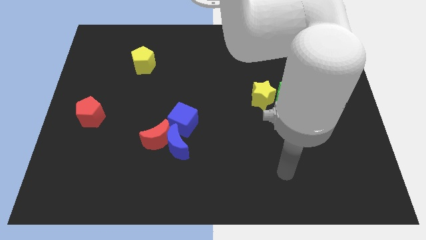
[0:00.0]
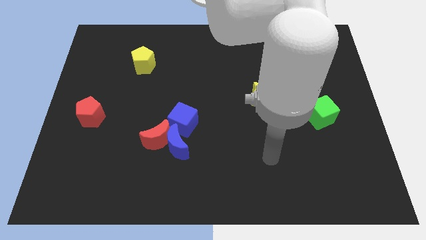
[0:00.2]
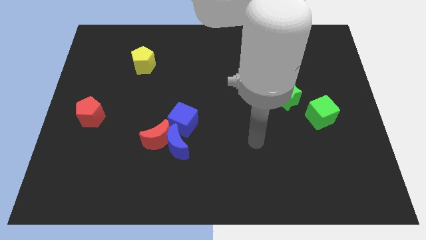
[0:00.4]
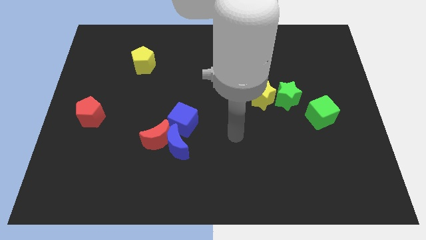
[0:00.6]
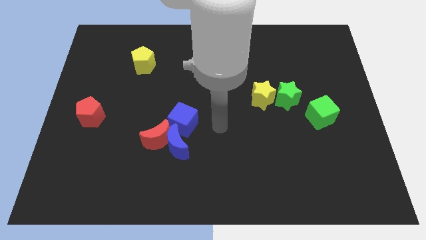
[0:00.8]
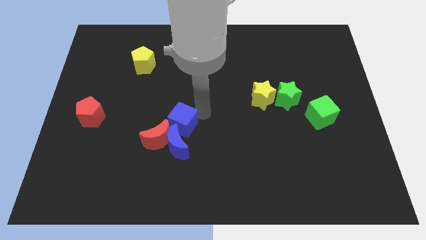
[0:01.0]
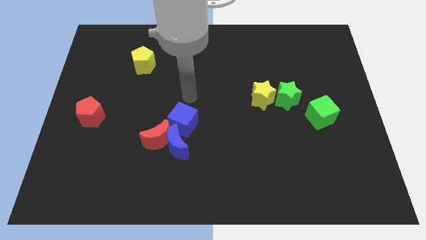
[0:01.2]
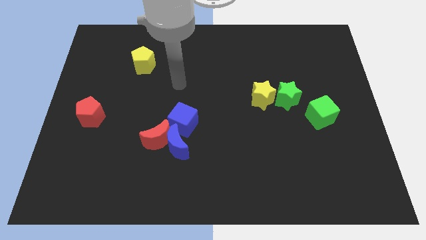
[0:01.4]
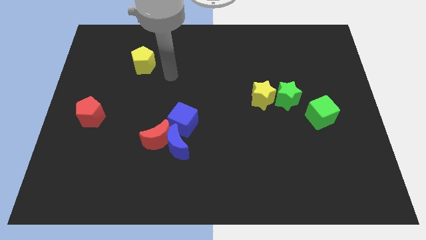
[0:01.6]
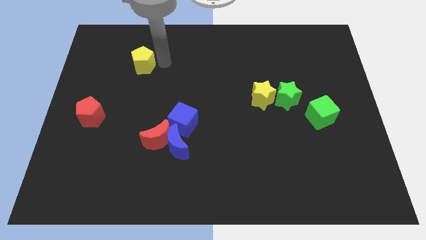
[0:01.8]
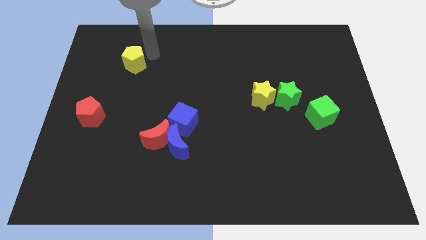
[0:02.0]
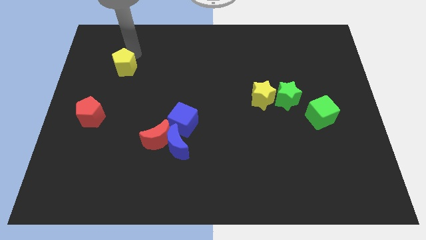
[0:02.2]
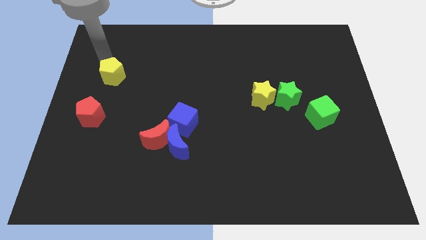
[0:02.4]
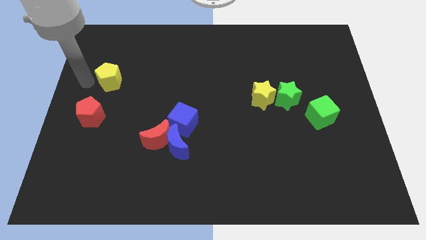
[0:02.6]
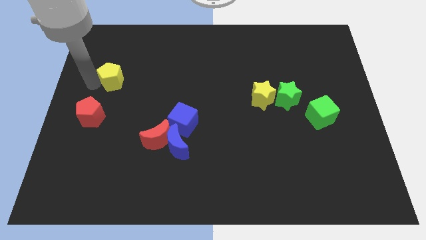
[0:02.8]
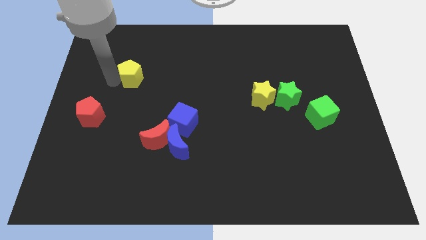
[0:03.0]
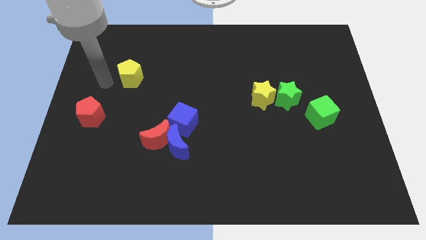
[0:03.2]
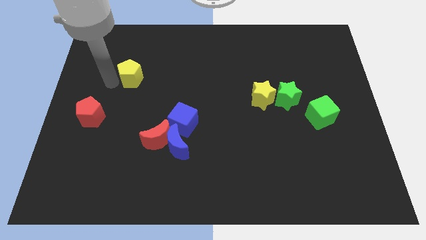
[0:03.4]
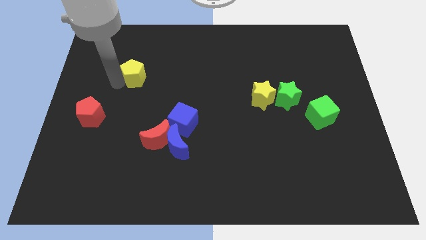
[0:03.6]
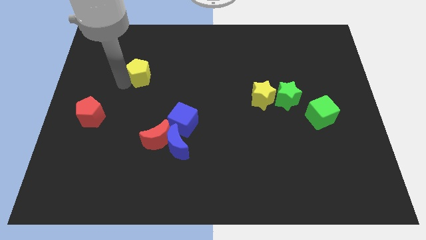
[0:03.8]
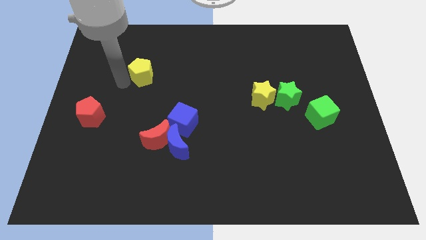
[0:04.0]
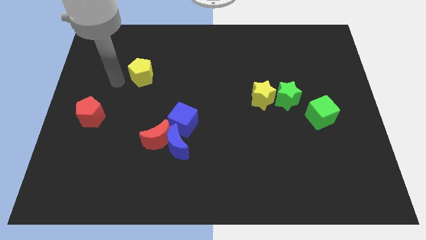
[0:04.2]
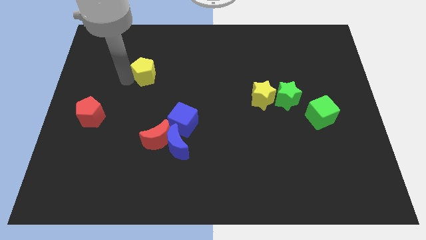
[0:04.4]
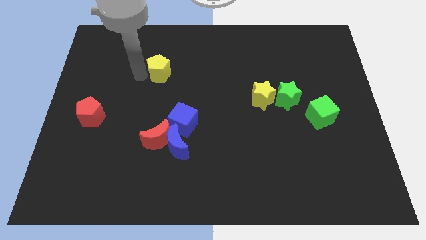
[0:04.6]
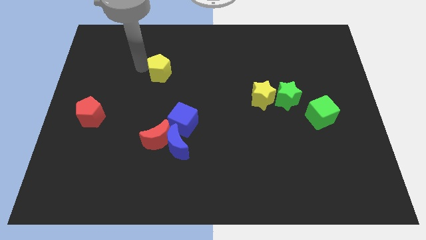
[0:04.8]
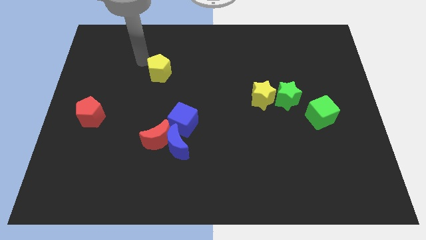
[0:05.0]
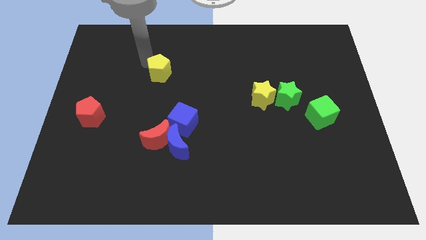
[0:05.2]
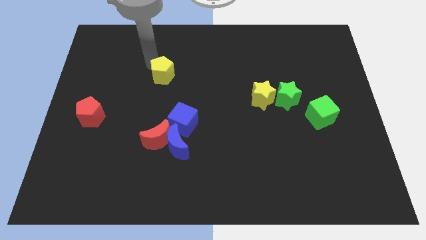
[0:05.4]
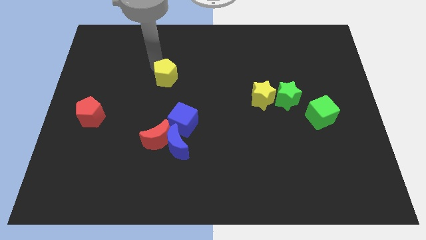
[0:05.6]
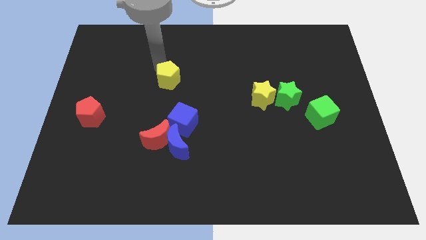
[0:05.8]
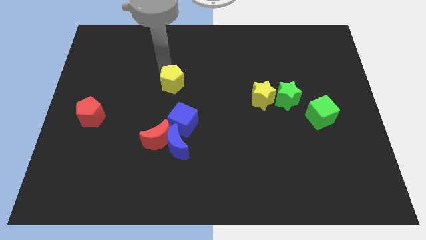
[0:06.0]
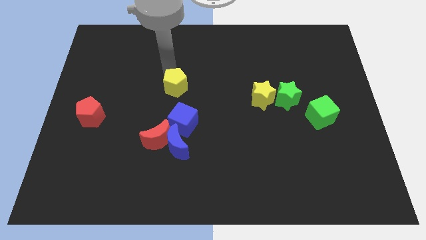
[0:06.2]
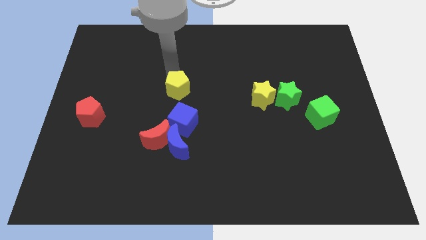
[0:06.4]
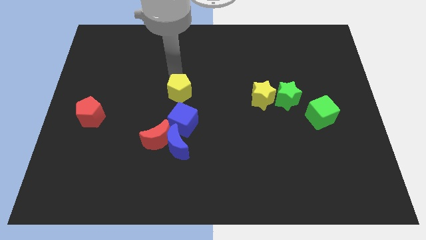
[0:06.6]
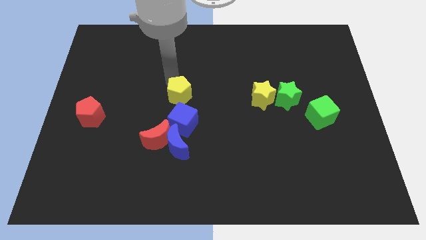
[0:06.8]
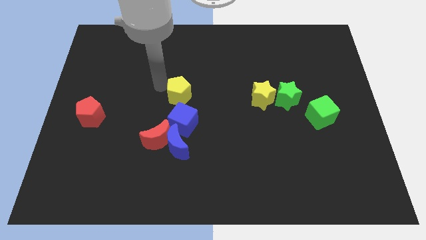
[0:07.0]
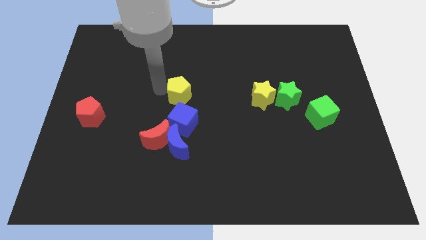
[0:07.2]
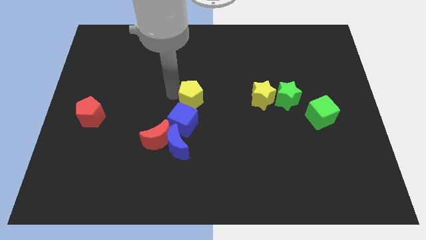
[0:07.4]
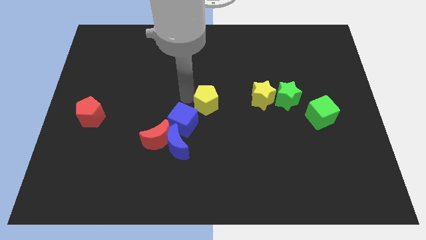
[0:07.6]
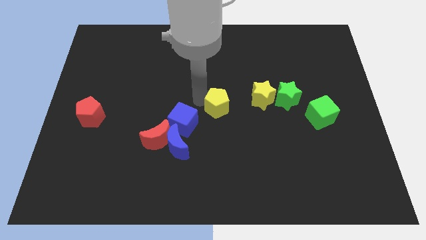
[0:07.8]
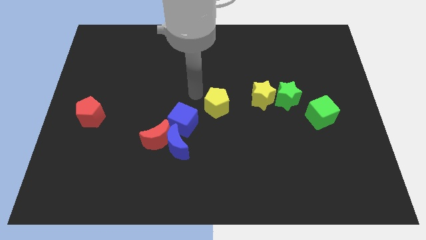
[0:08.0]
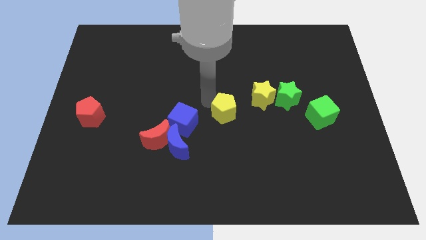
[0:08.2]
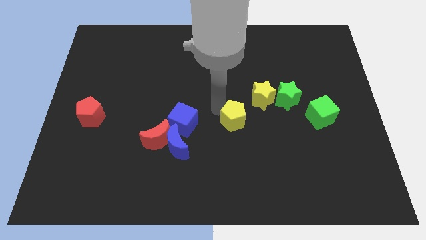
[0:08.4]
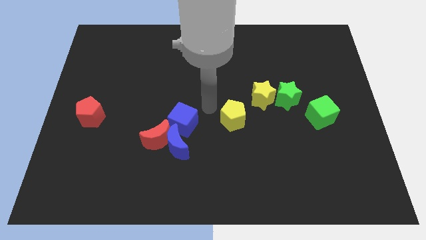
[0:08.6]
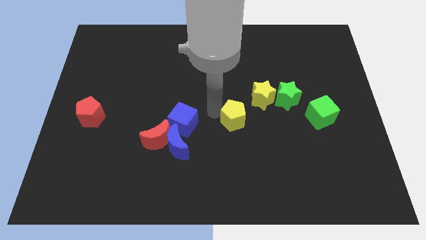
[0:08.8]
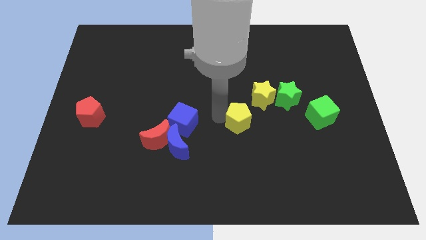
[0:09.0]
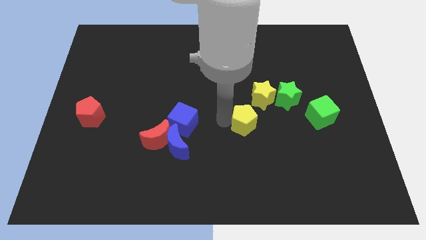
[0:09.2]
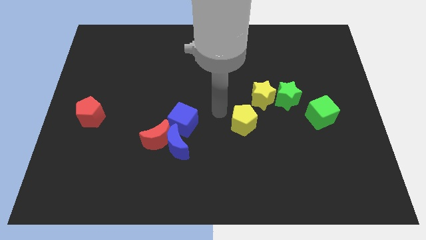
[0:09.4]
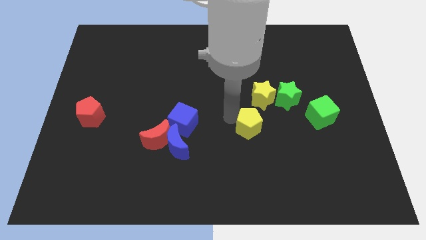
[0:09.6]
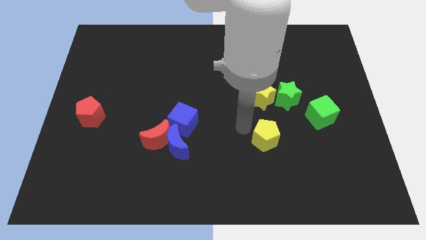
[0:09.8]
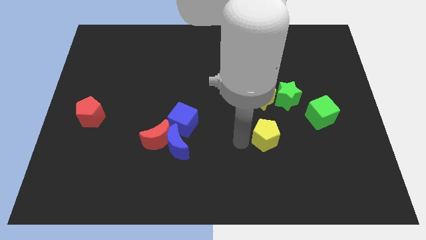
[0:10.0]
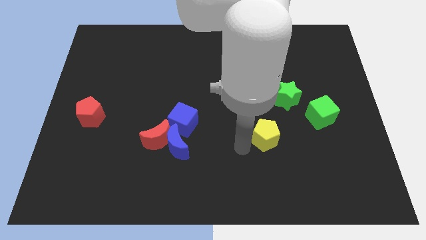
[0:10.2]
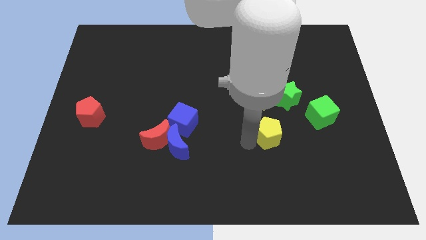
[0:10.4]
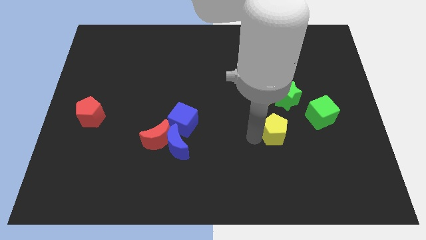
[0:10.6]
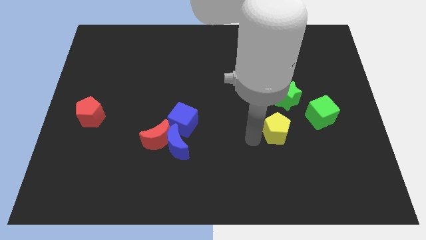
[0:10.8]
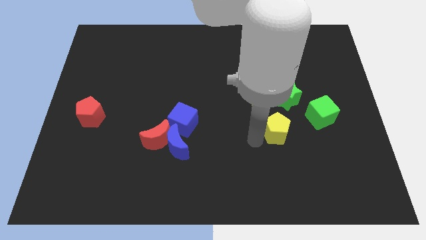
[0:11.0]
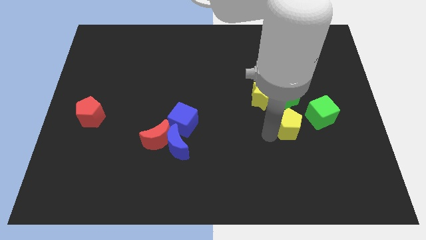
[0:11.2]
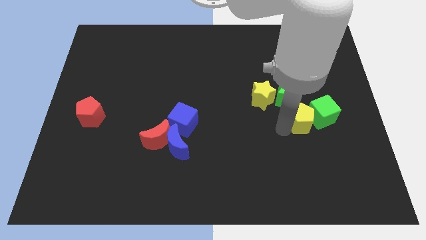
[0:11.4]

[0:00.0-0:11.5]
move the yellow pentagon next to the green cube

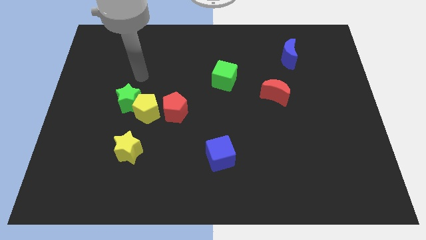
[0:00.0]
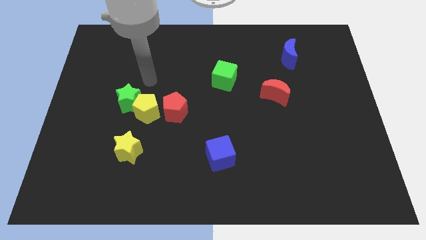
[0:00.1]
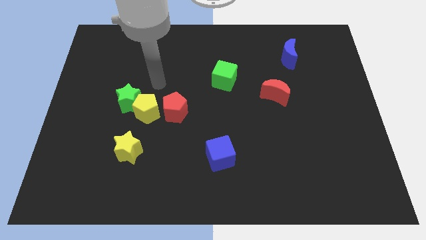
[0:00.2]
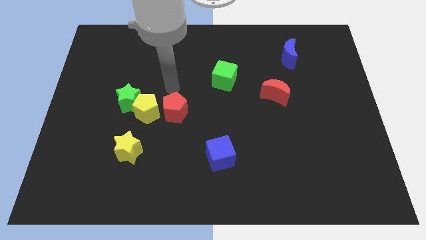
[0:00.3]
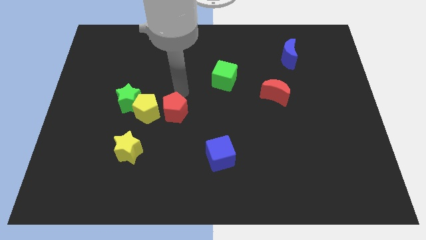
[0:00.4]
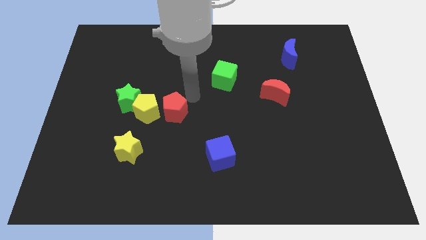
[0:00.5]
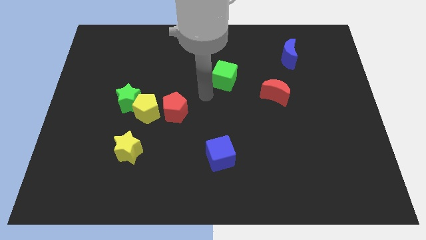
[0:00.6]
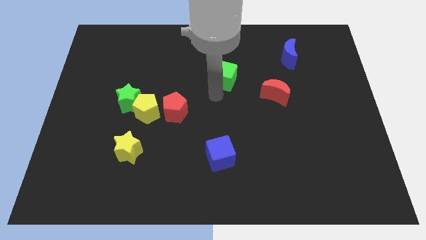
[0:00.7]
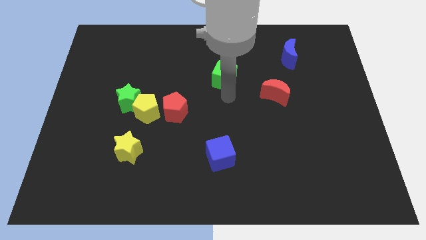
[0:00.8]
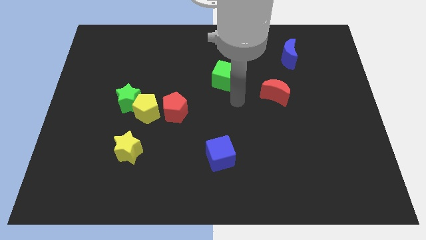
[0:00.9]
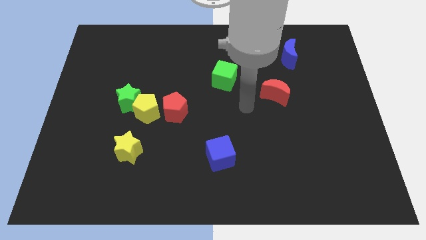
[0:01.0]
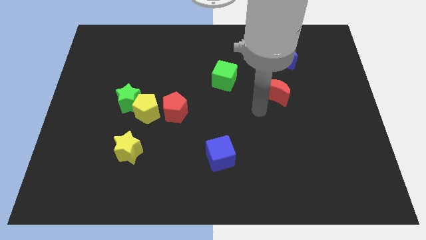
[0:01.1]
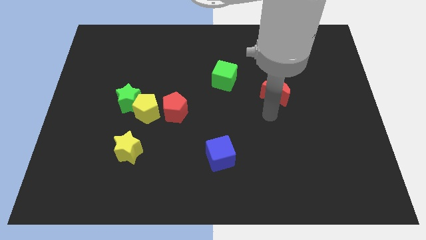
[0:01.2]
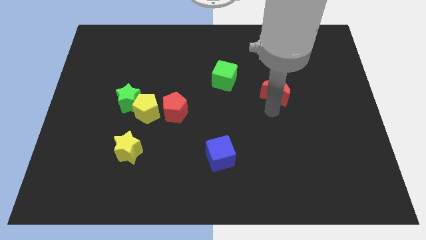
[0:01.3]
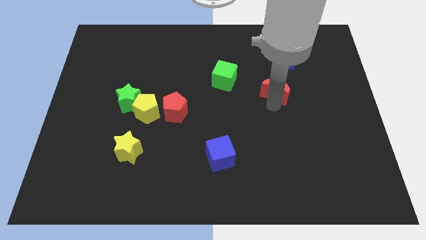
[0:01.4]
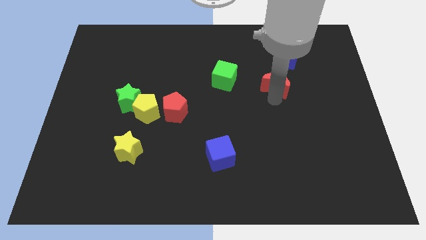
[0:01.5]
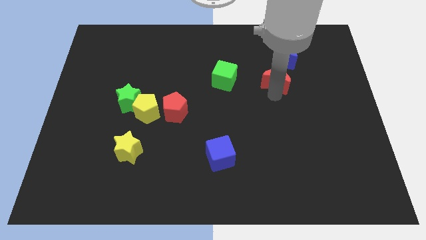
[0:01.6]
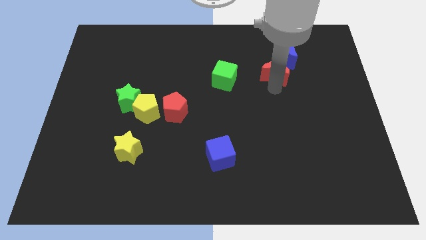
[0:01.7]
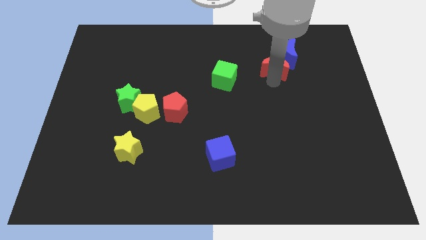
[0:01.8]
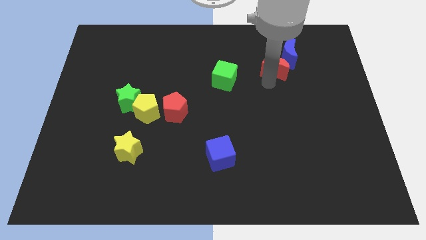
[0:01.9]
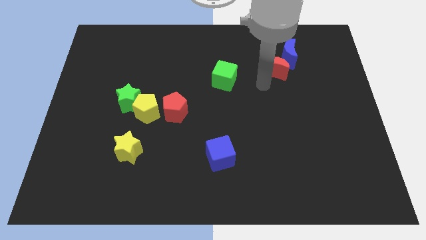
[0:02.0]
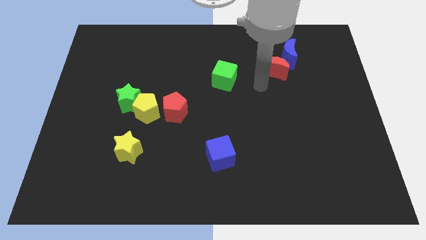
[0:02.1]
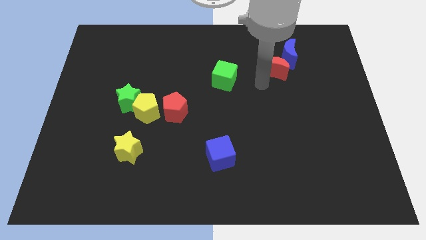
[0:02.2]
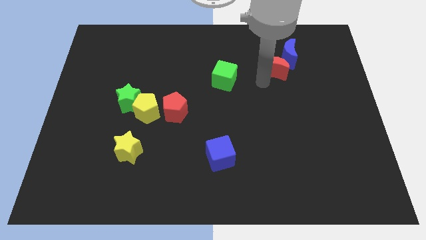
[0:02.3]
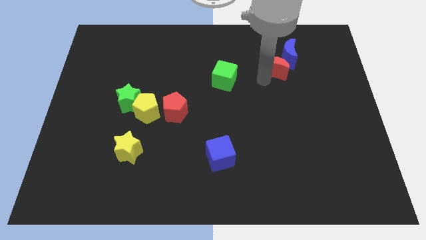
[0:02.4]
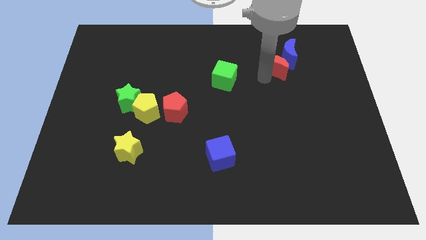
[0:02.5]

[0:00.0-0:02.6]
push the red moon towards the blue moon
